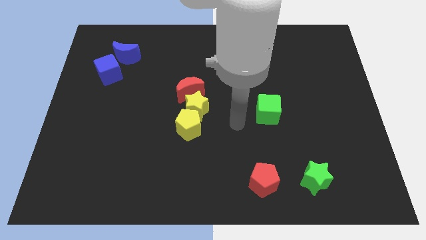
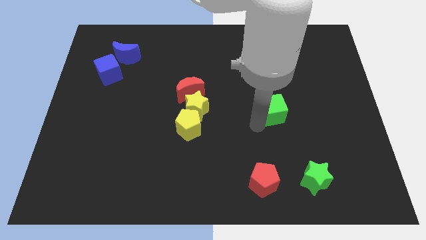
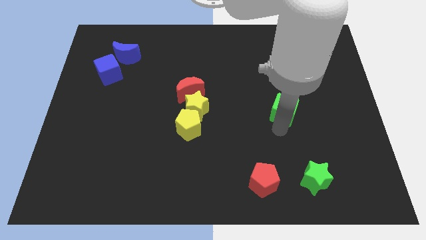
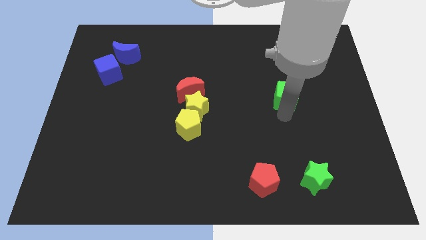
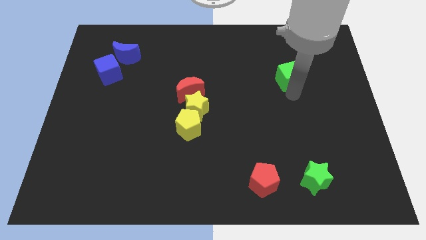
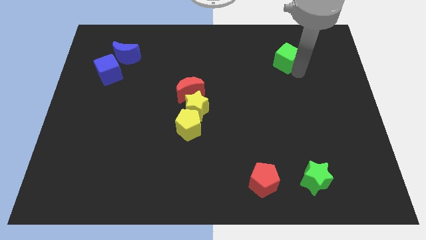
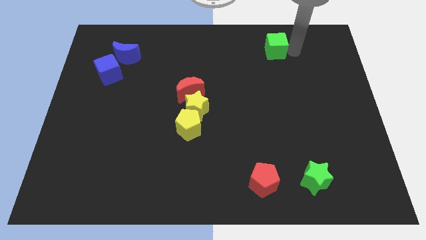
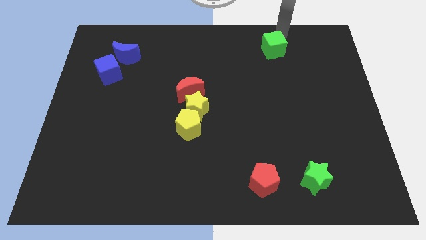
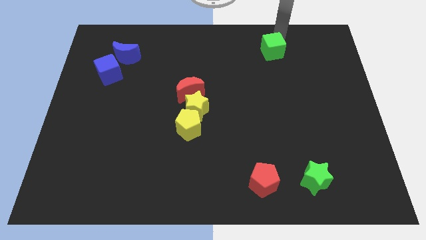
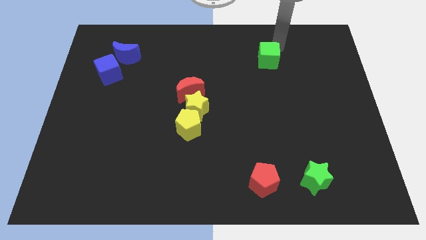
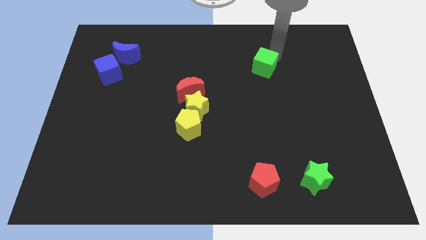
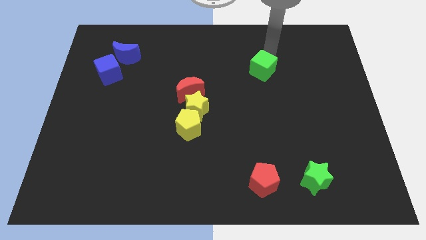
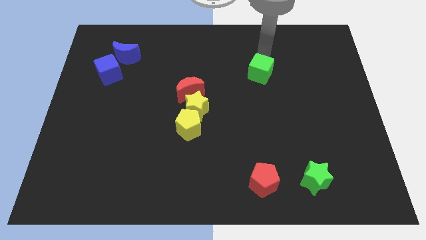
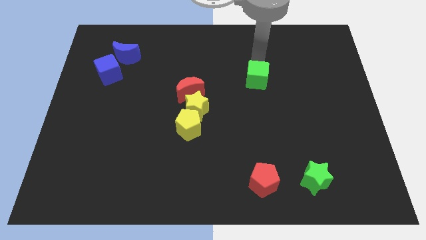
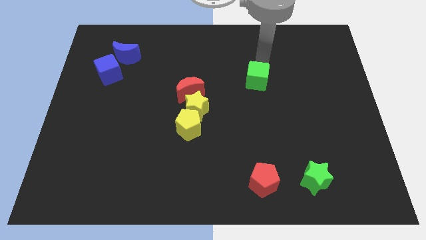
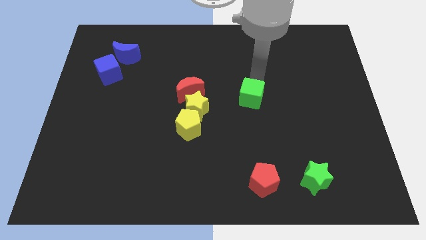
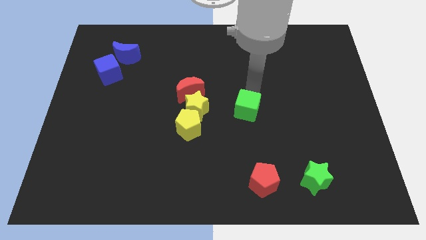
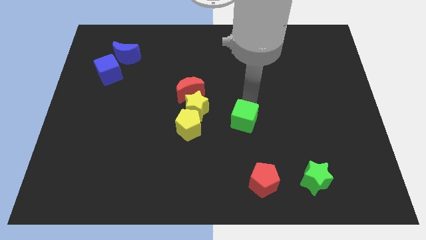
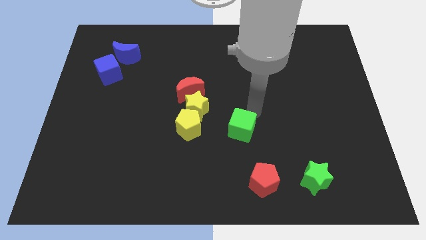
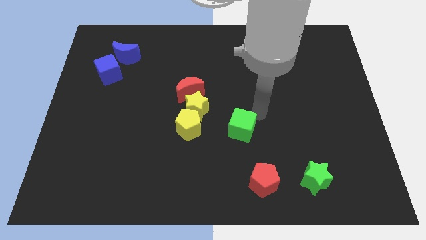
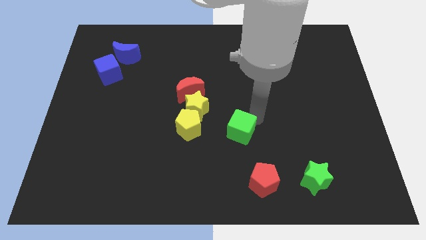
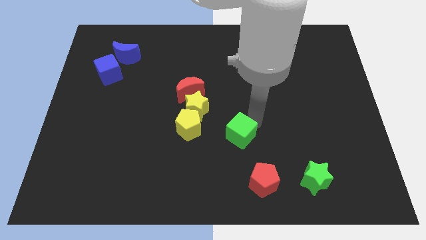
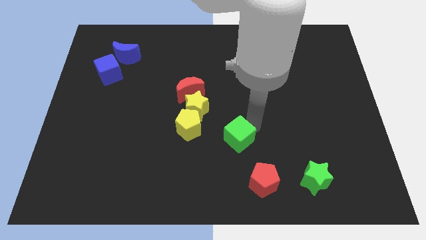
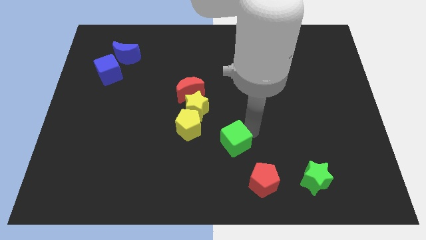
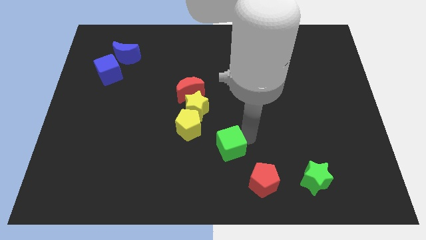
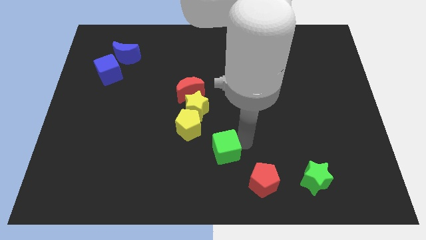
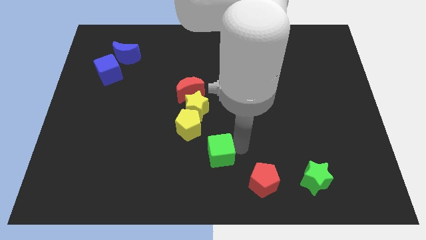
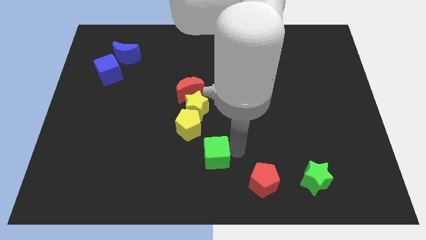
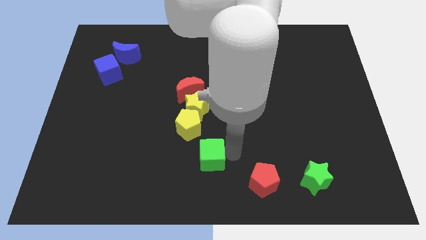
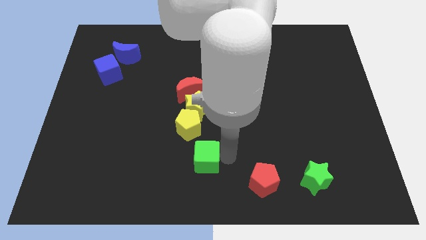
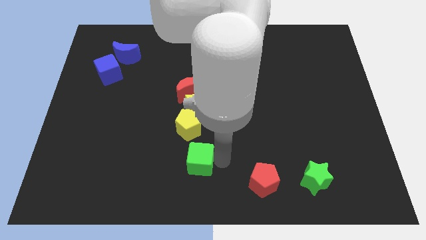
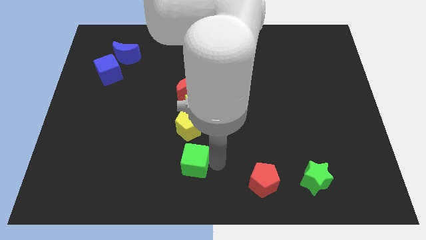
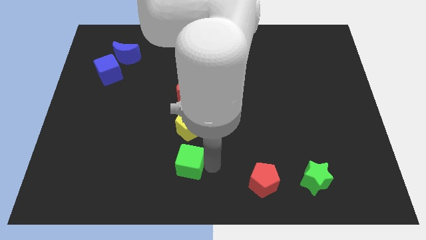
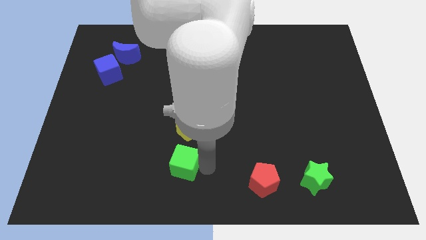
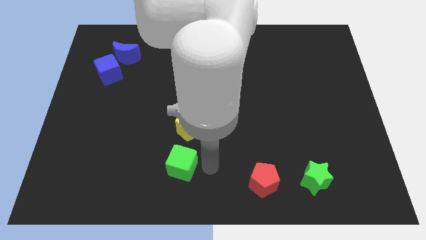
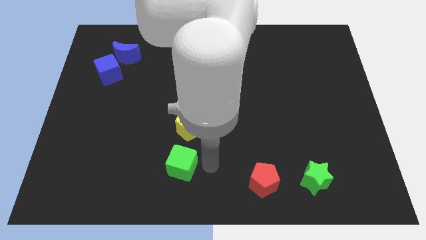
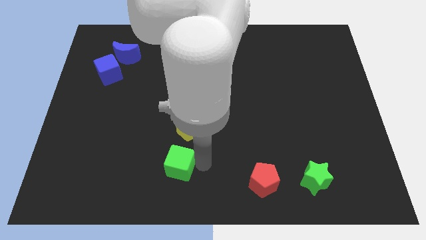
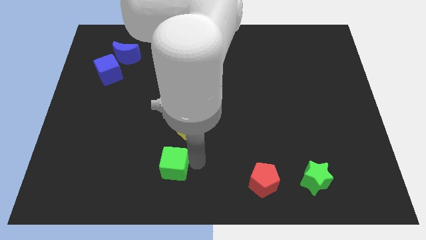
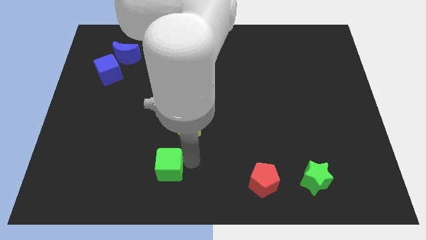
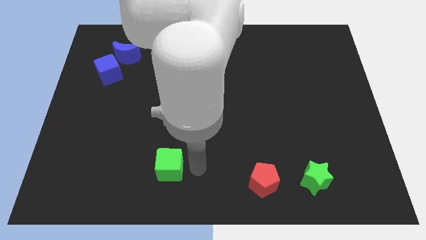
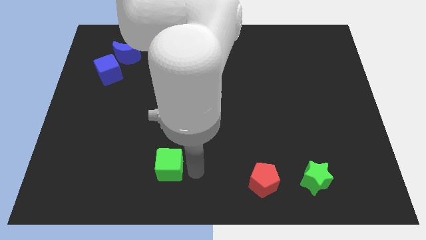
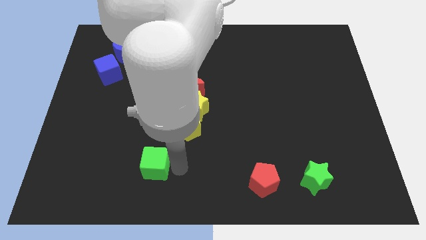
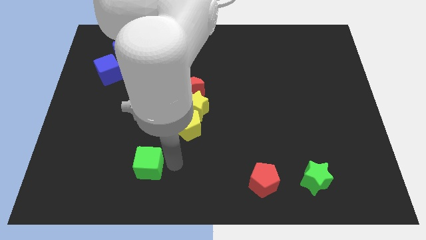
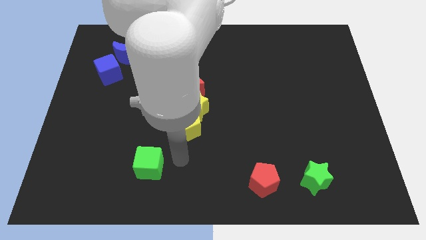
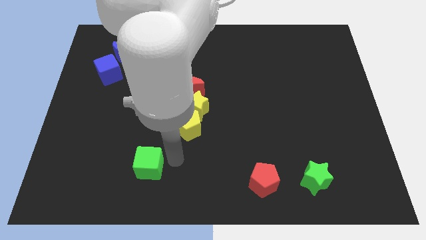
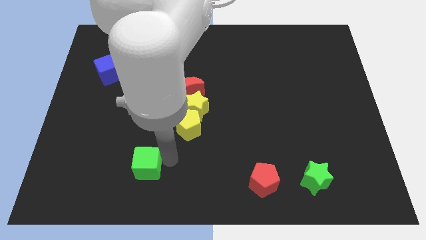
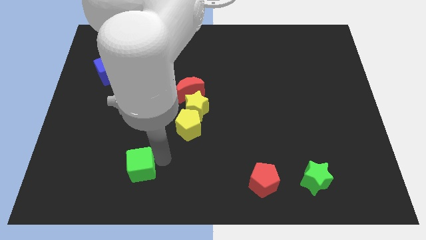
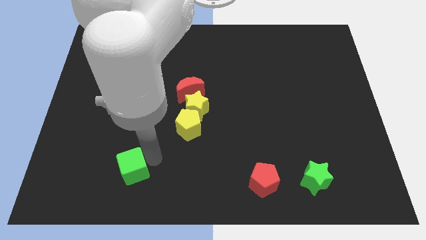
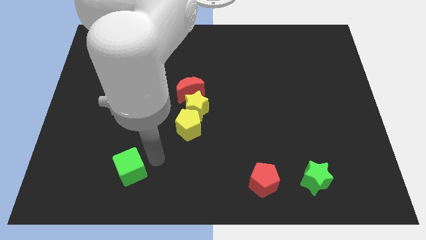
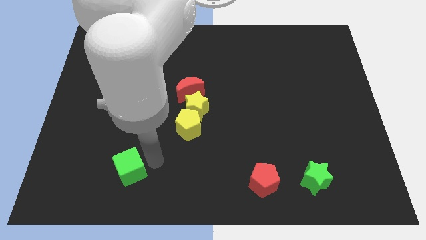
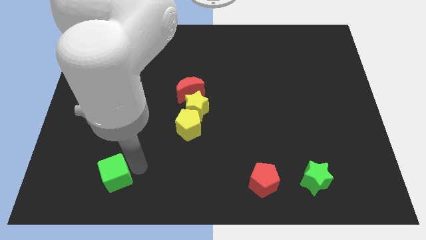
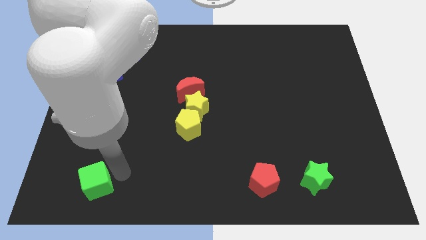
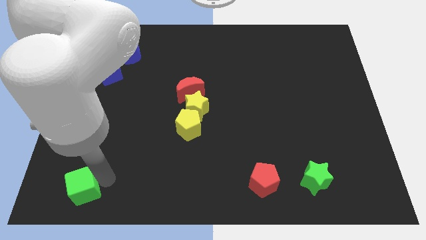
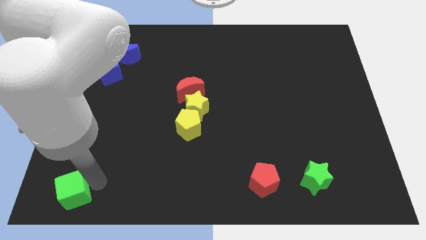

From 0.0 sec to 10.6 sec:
slide the green cube to the bottom left of the board

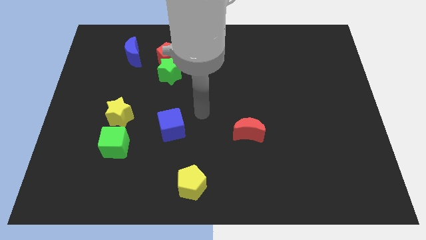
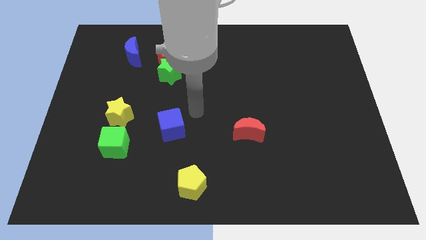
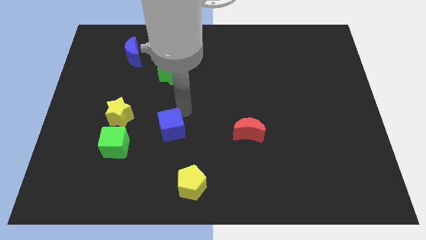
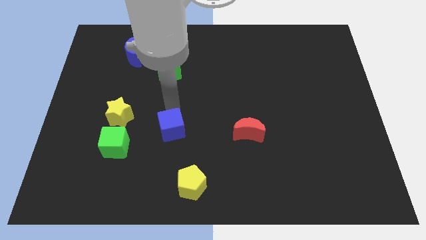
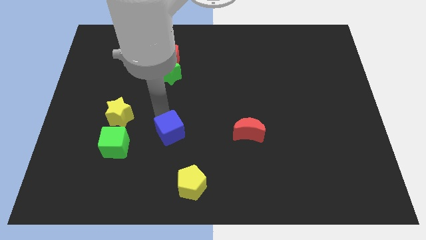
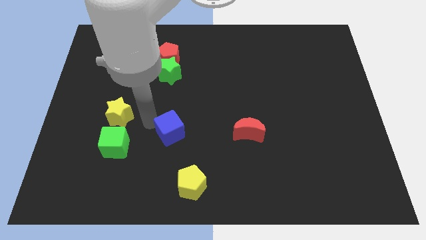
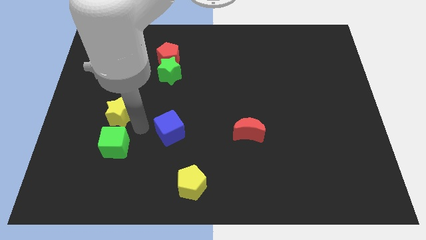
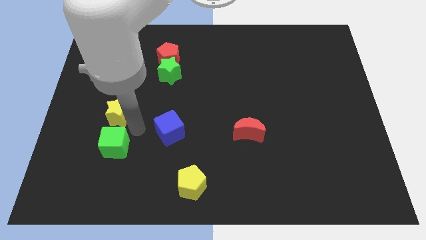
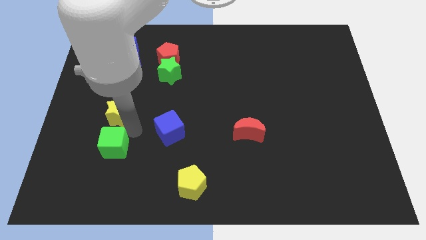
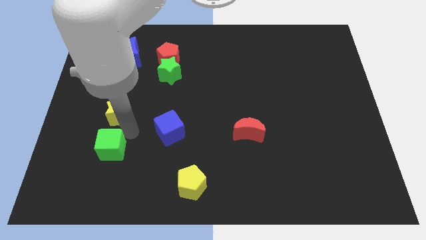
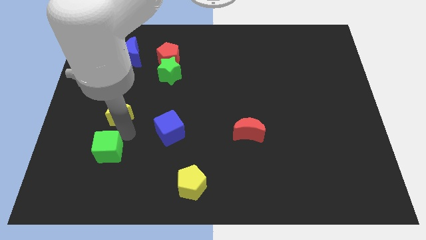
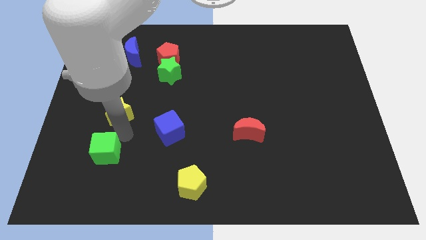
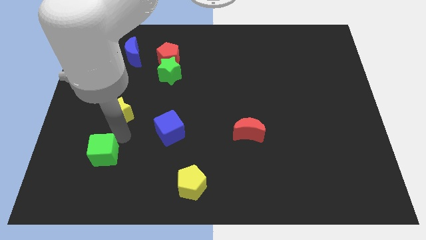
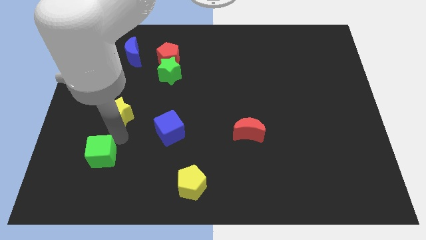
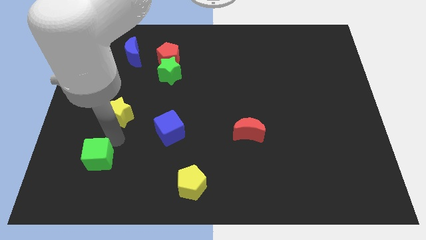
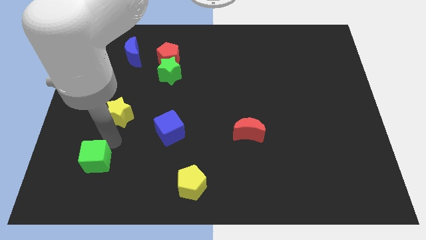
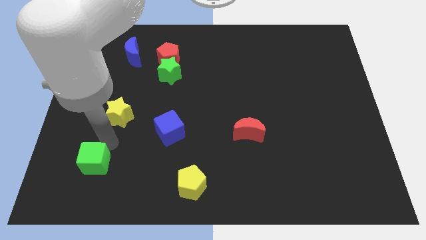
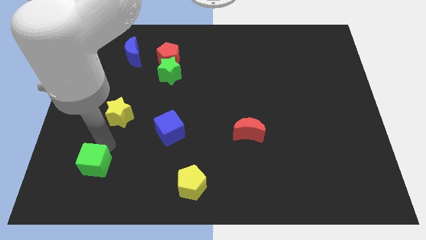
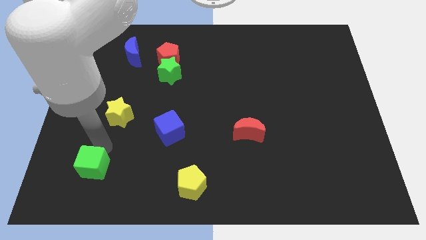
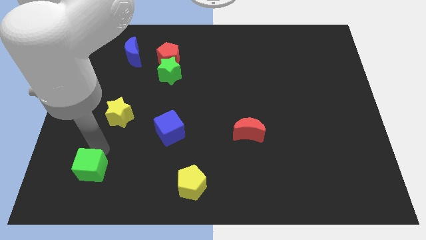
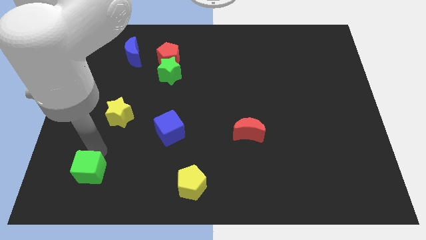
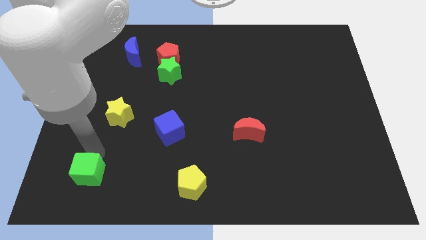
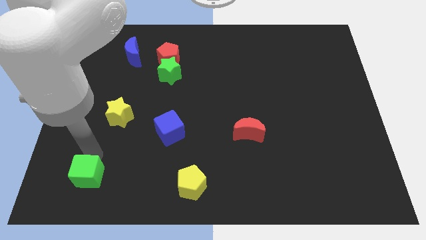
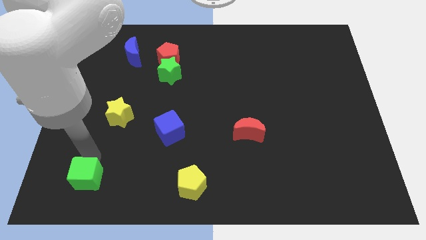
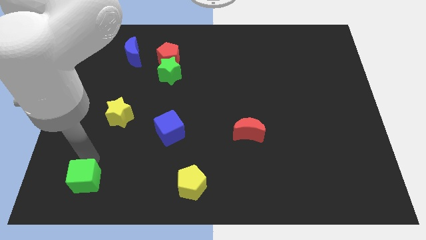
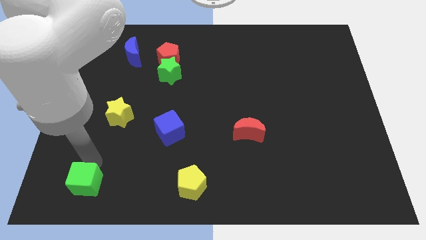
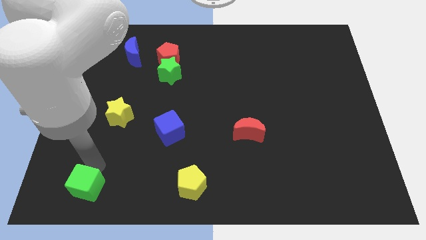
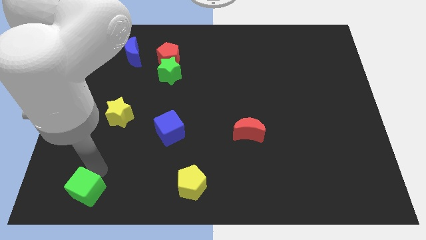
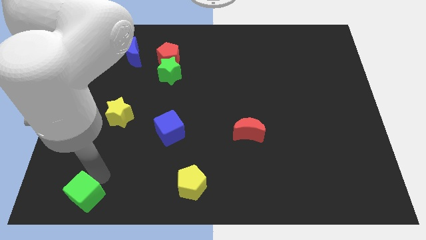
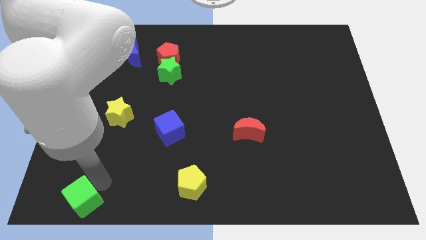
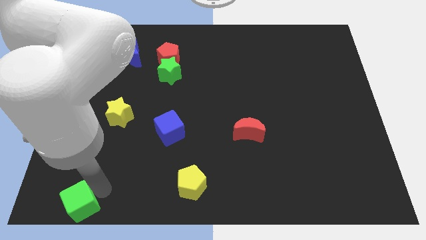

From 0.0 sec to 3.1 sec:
slide the green cube to the bottom left corner
